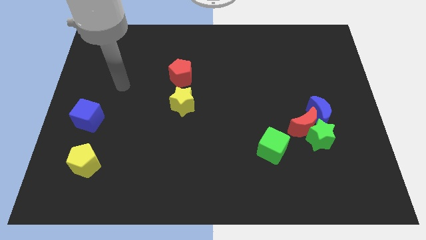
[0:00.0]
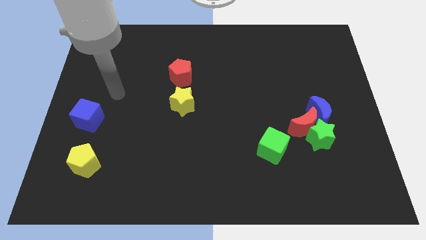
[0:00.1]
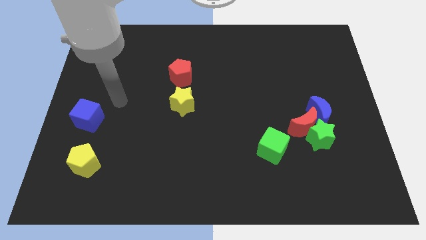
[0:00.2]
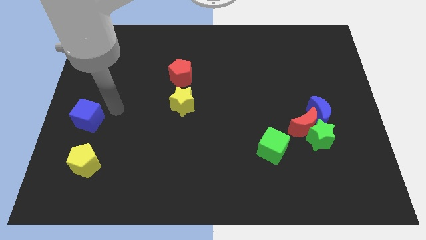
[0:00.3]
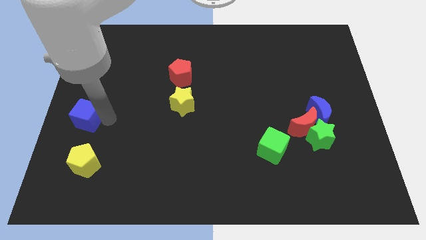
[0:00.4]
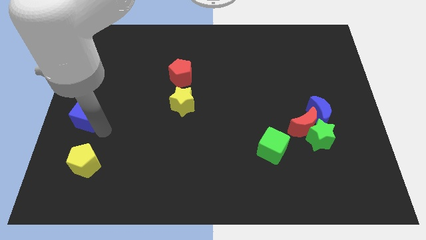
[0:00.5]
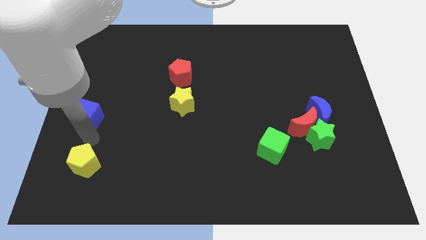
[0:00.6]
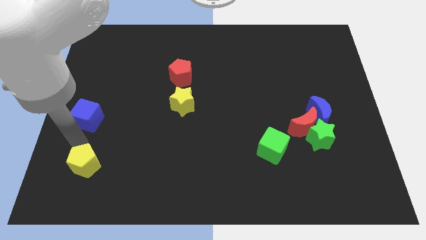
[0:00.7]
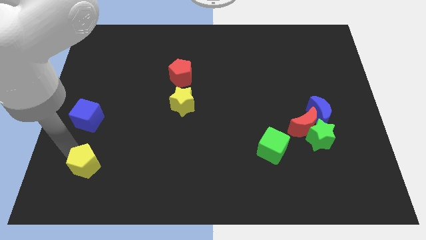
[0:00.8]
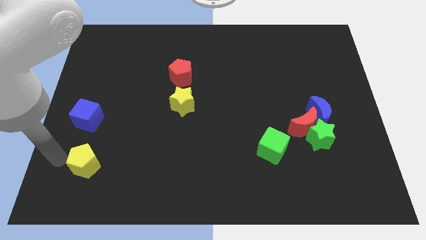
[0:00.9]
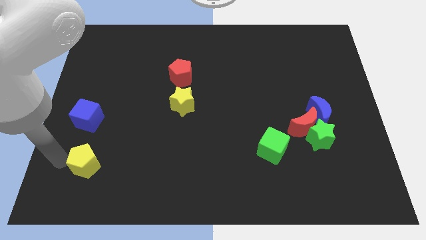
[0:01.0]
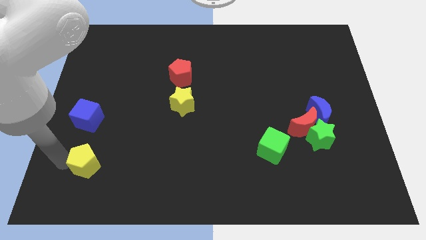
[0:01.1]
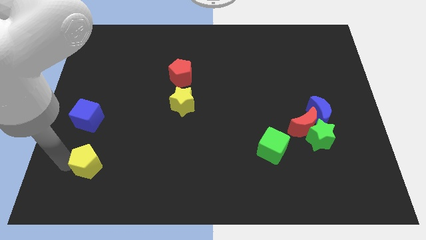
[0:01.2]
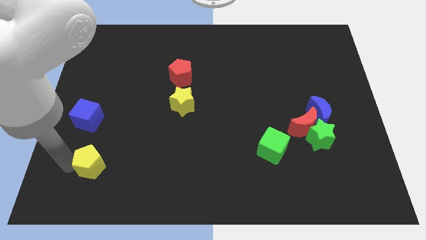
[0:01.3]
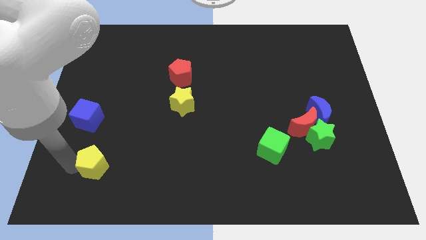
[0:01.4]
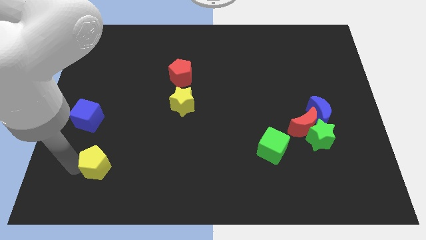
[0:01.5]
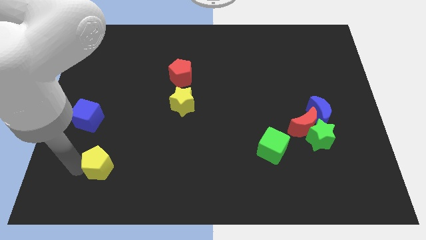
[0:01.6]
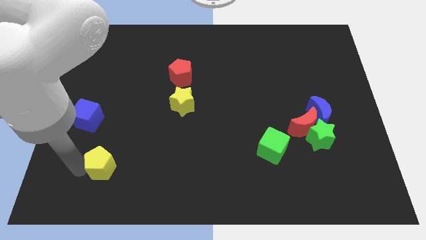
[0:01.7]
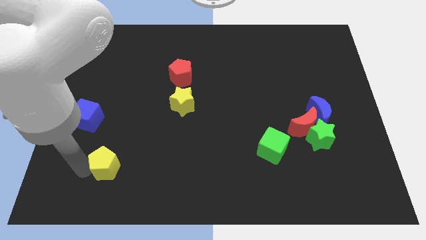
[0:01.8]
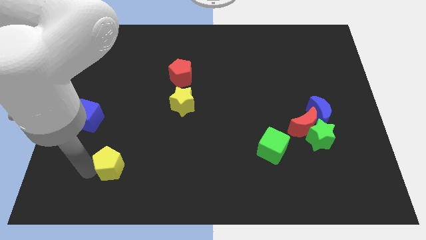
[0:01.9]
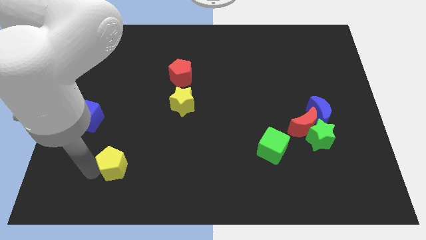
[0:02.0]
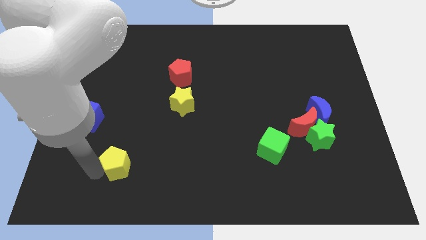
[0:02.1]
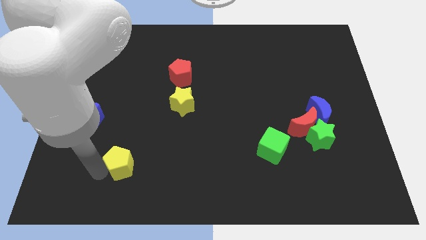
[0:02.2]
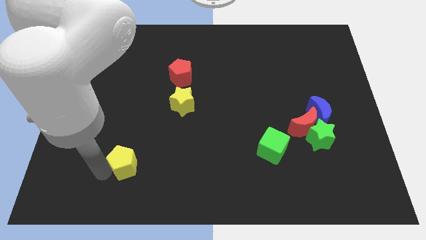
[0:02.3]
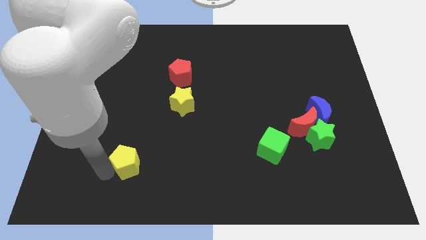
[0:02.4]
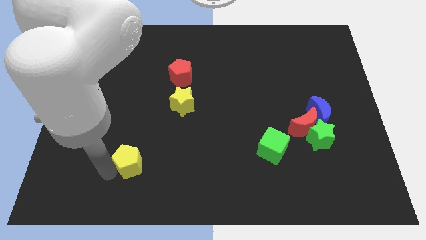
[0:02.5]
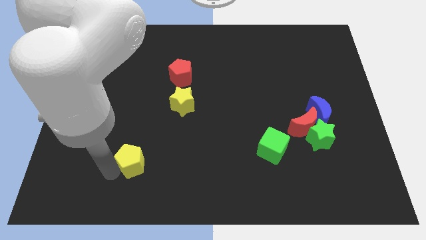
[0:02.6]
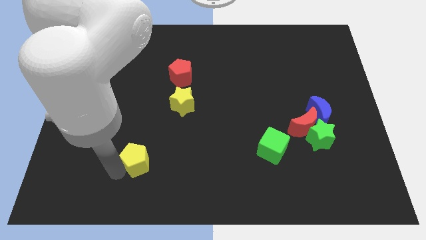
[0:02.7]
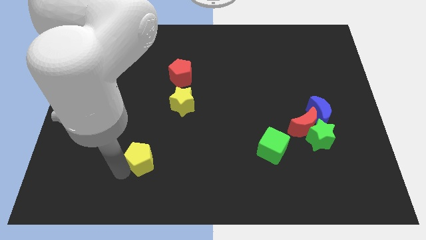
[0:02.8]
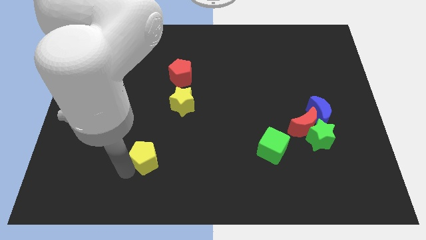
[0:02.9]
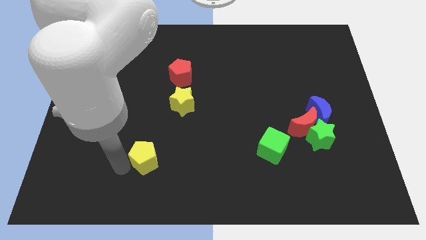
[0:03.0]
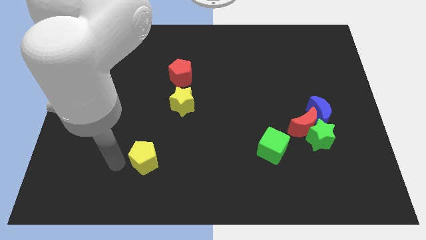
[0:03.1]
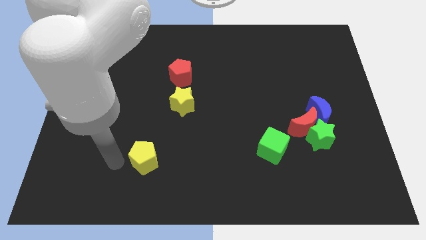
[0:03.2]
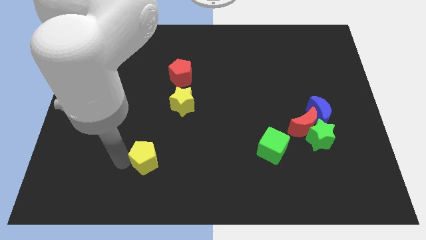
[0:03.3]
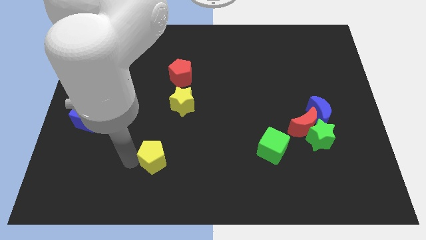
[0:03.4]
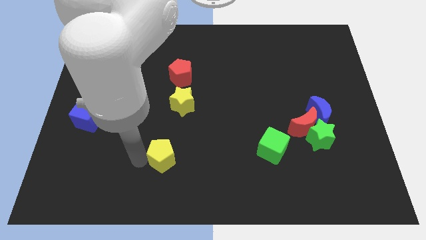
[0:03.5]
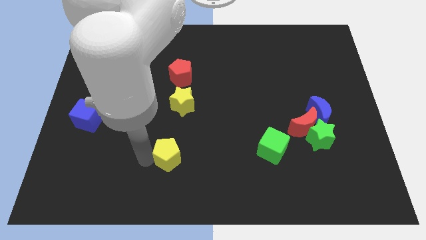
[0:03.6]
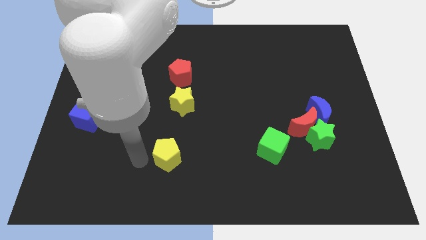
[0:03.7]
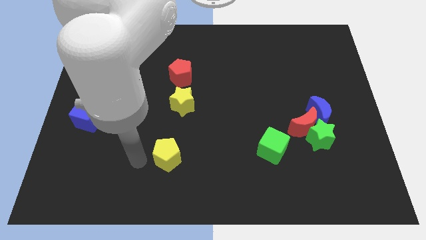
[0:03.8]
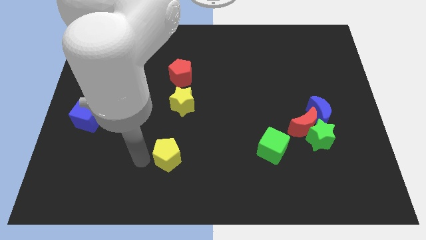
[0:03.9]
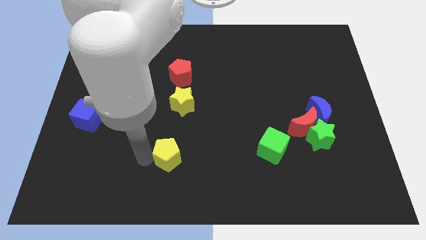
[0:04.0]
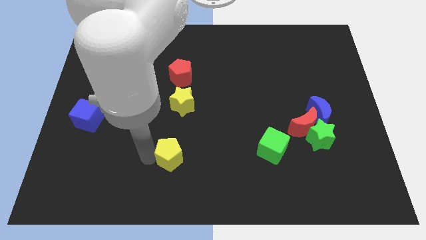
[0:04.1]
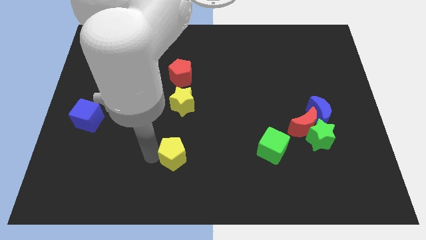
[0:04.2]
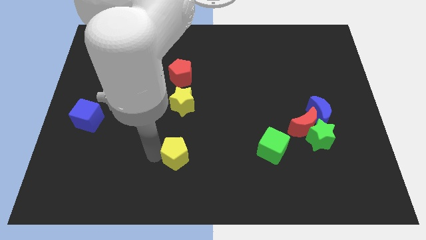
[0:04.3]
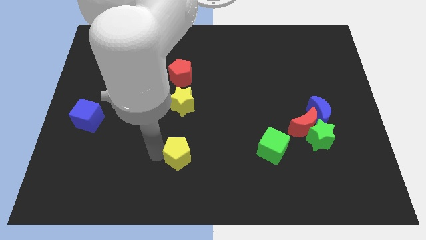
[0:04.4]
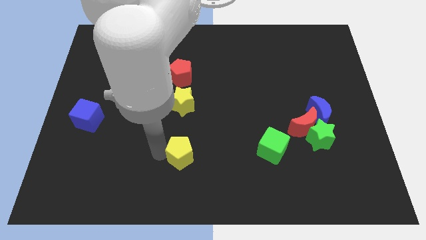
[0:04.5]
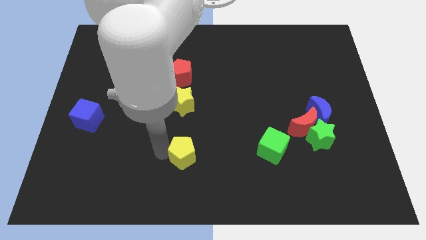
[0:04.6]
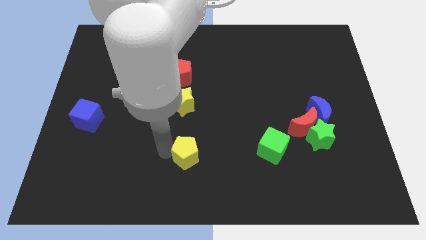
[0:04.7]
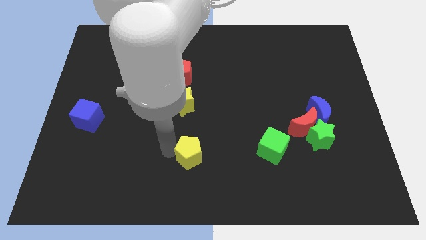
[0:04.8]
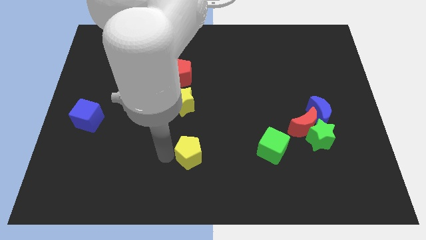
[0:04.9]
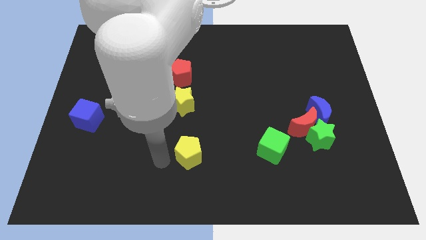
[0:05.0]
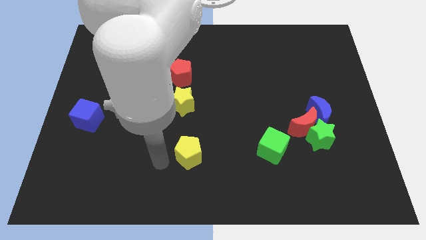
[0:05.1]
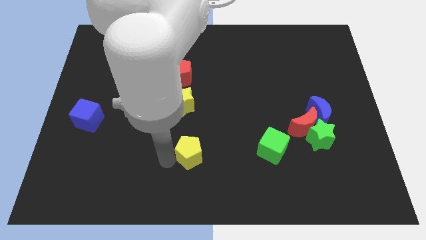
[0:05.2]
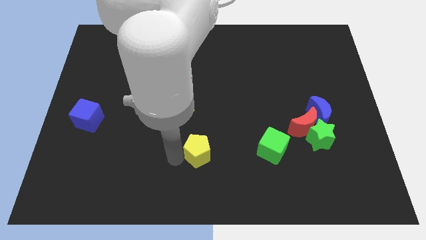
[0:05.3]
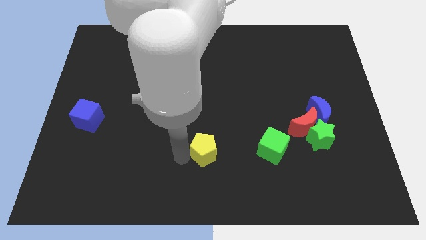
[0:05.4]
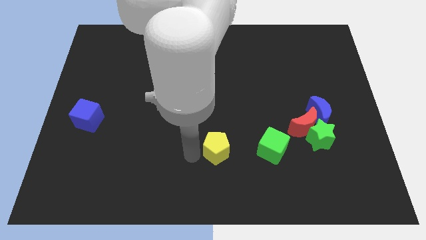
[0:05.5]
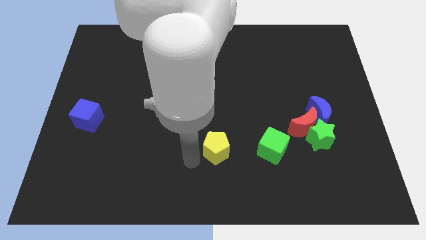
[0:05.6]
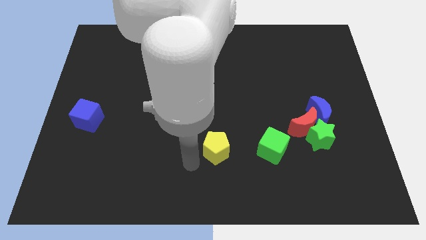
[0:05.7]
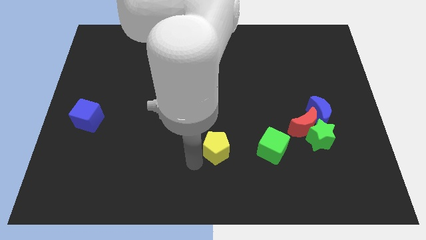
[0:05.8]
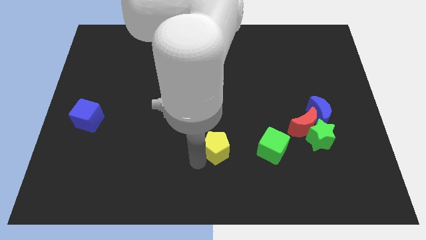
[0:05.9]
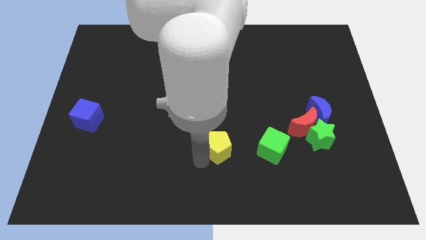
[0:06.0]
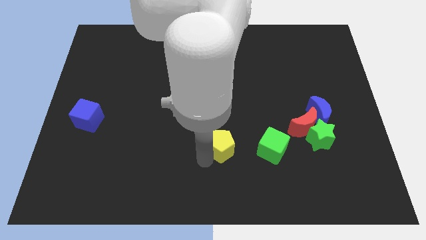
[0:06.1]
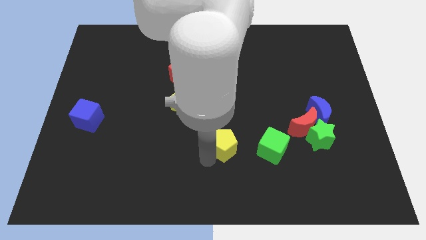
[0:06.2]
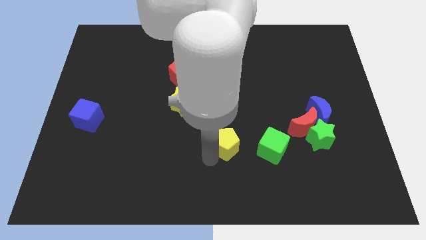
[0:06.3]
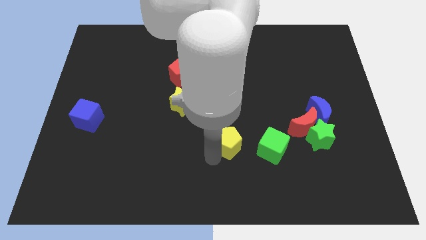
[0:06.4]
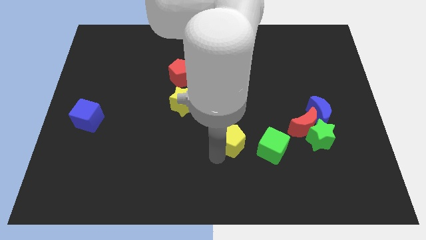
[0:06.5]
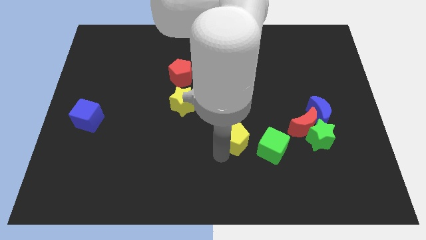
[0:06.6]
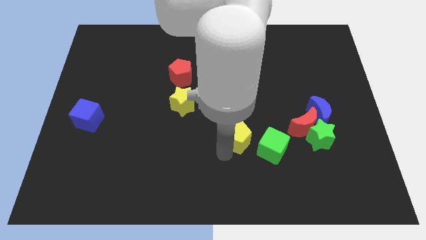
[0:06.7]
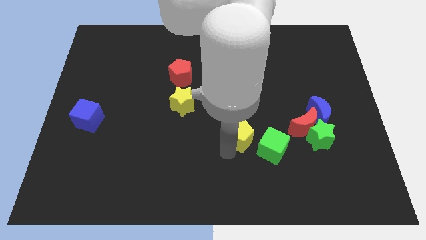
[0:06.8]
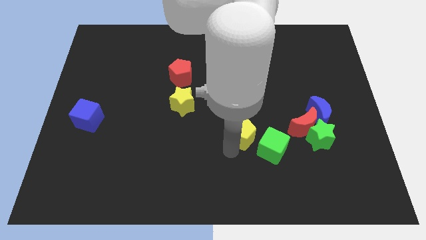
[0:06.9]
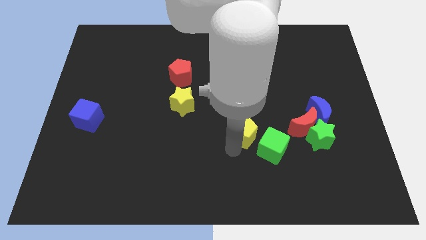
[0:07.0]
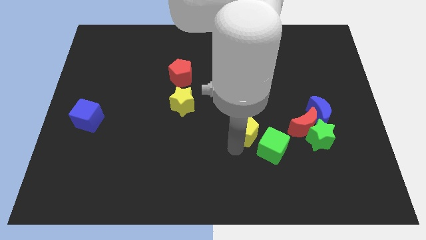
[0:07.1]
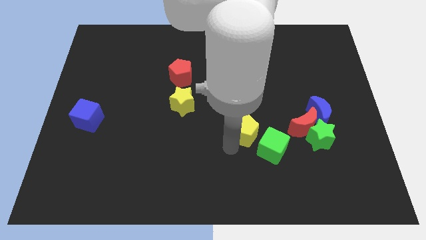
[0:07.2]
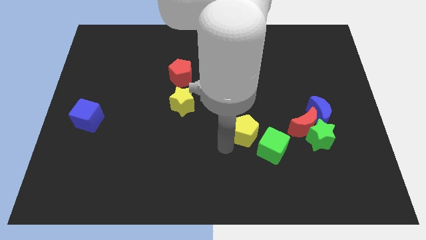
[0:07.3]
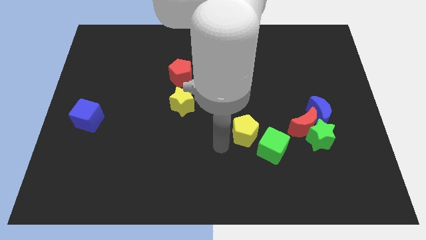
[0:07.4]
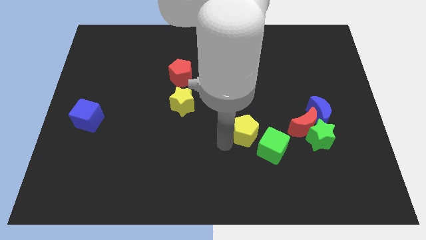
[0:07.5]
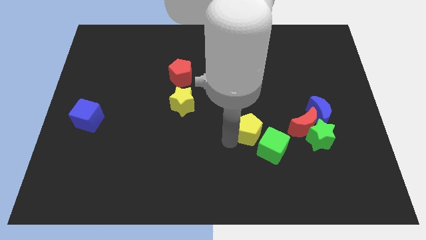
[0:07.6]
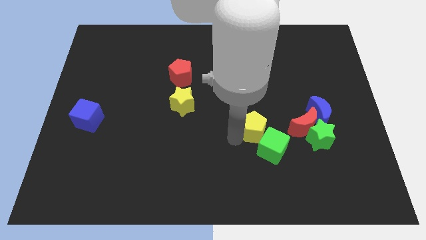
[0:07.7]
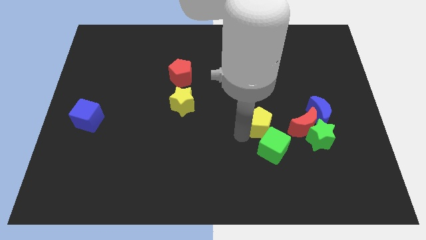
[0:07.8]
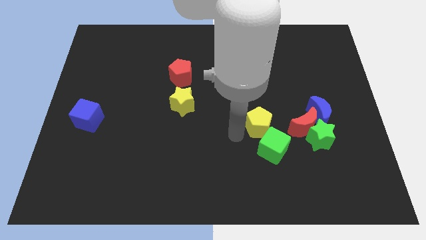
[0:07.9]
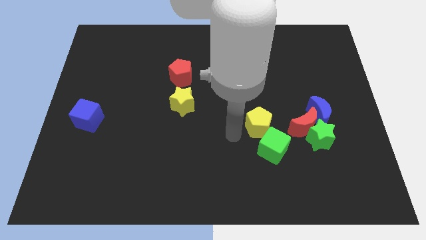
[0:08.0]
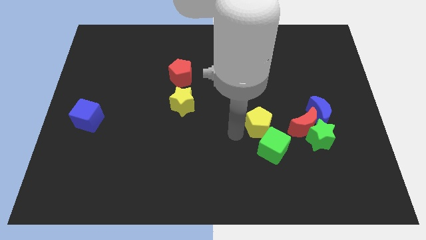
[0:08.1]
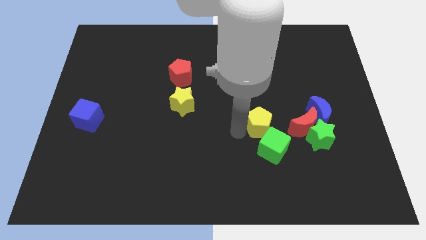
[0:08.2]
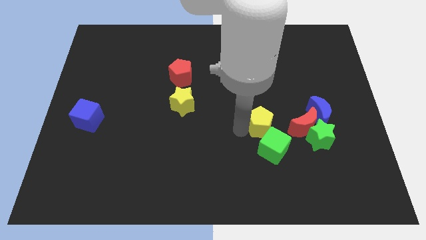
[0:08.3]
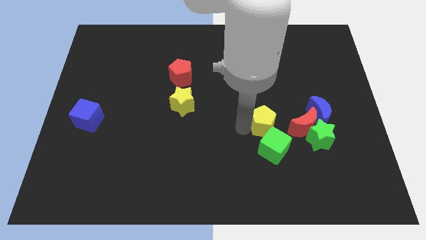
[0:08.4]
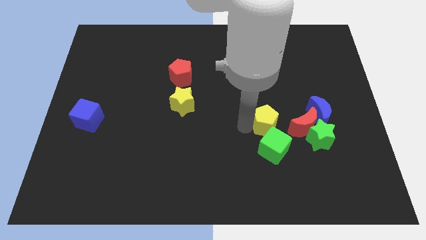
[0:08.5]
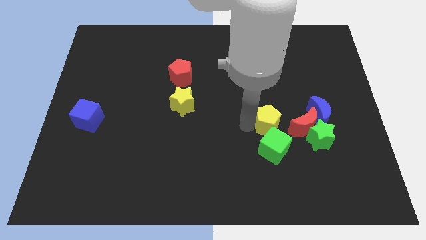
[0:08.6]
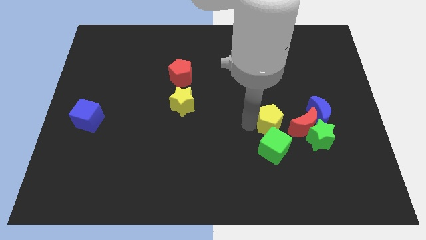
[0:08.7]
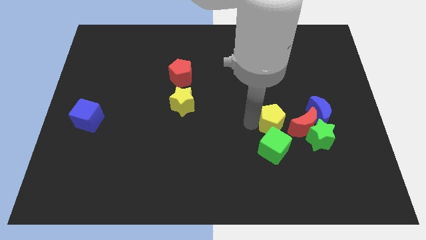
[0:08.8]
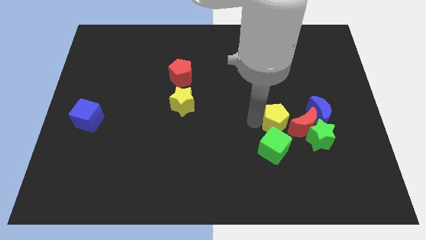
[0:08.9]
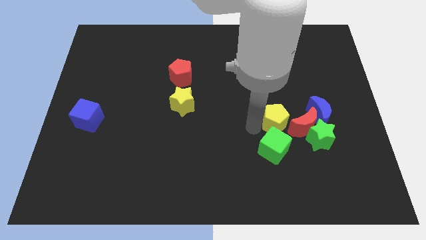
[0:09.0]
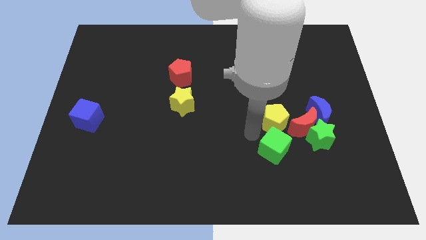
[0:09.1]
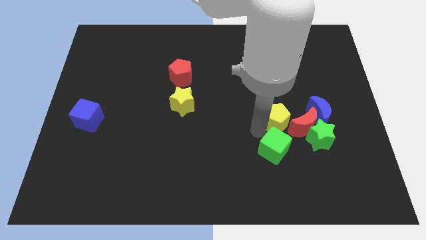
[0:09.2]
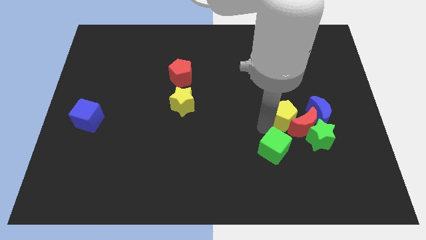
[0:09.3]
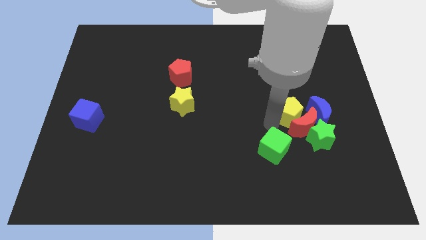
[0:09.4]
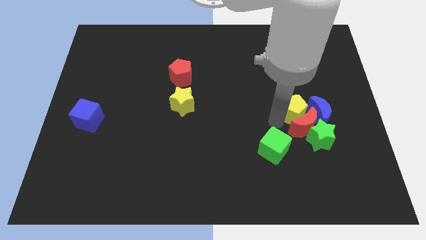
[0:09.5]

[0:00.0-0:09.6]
move the yellow pentagon next to the blue moon
